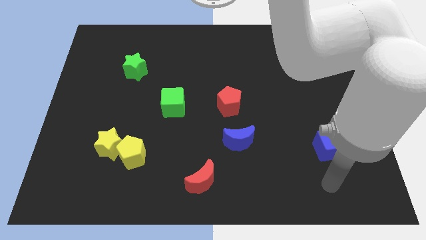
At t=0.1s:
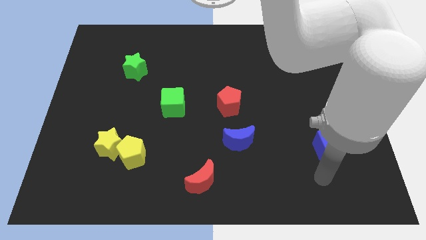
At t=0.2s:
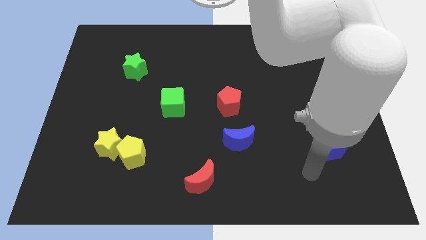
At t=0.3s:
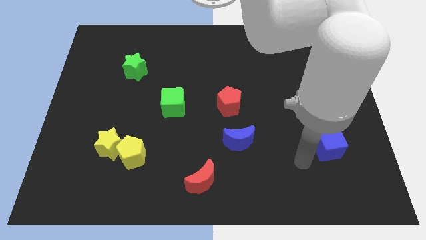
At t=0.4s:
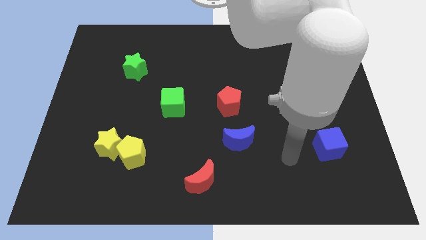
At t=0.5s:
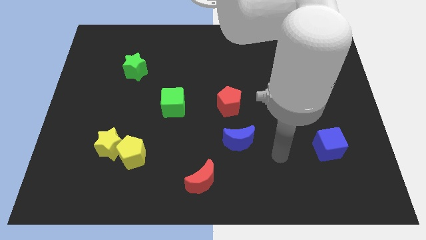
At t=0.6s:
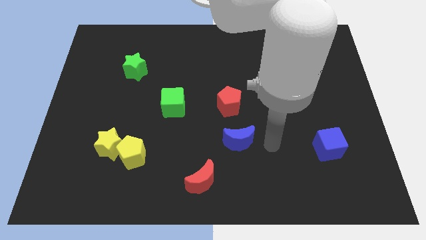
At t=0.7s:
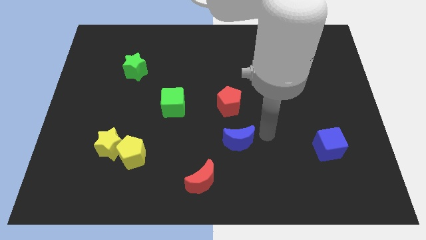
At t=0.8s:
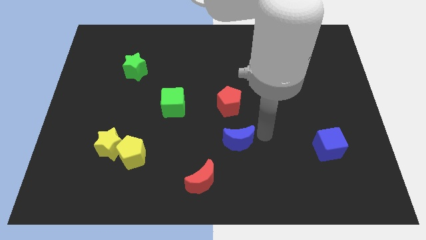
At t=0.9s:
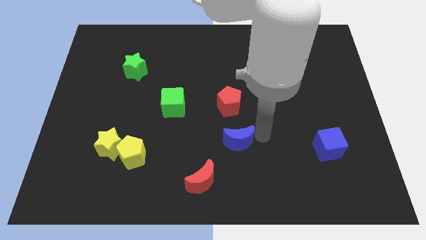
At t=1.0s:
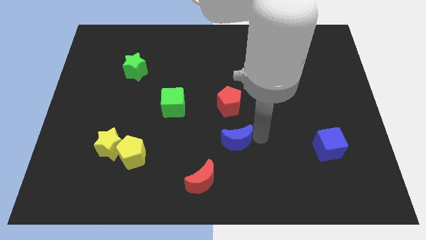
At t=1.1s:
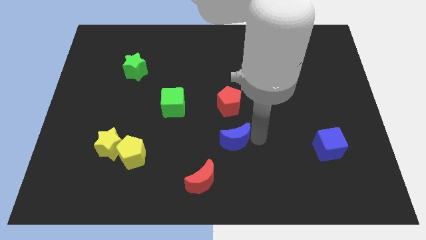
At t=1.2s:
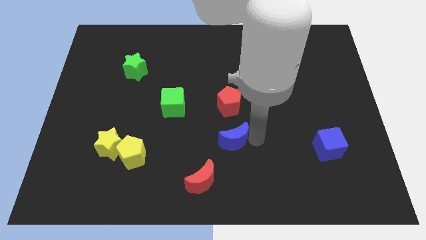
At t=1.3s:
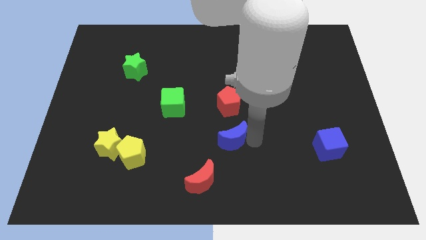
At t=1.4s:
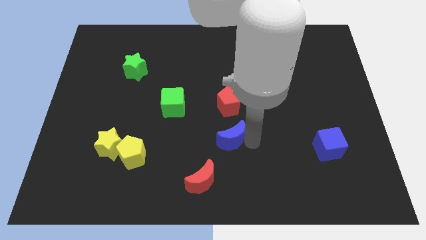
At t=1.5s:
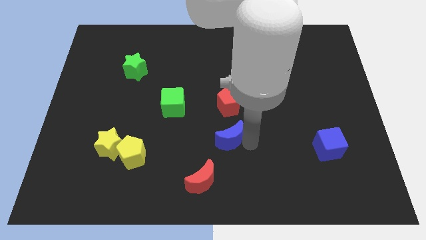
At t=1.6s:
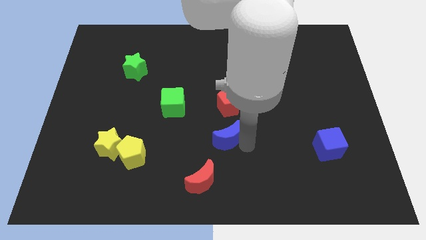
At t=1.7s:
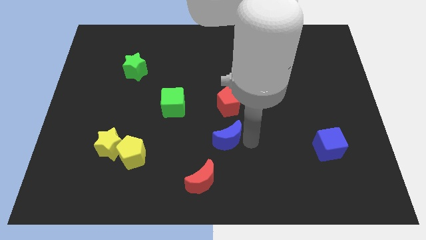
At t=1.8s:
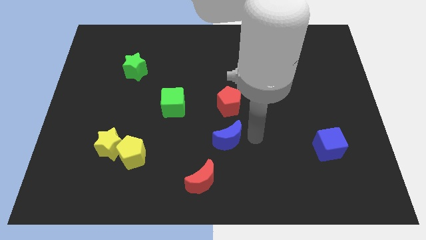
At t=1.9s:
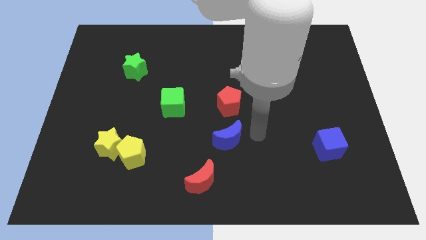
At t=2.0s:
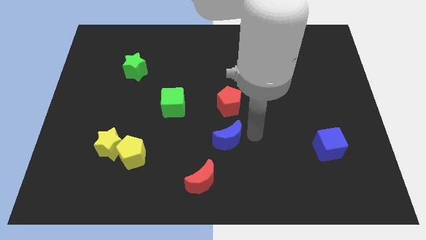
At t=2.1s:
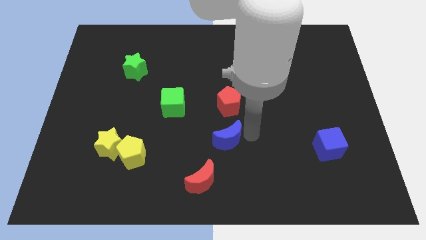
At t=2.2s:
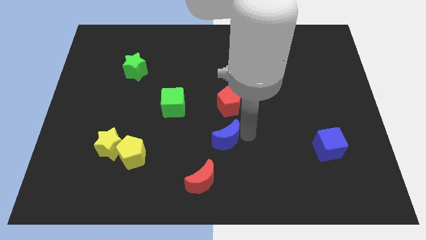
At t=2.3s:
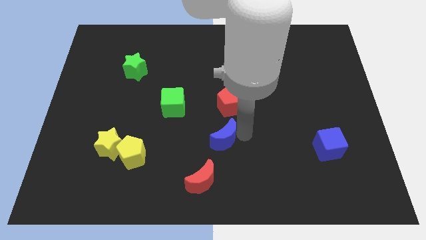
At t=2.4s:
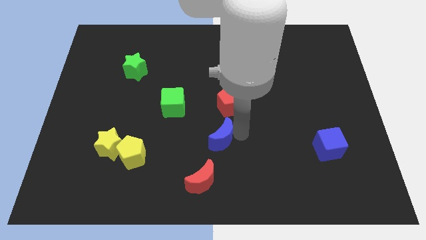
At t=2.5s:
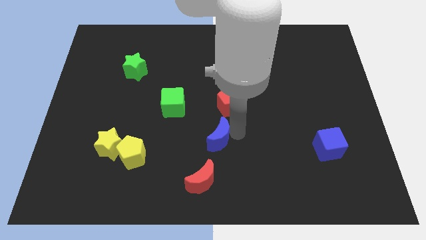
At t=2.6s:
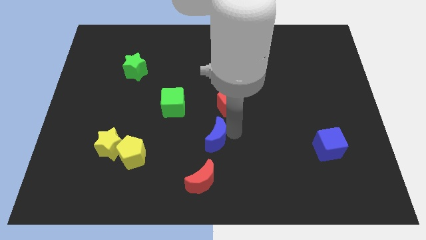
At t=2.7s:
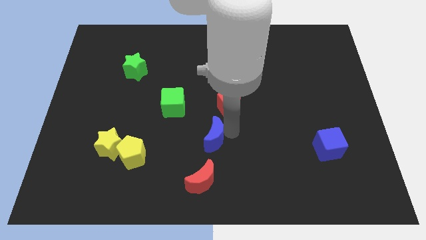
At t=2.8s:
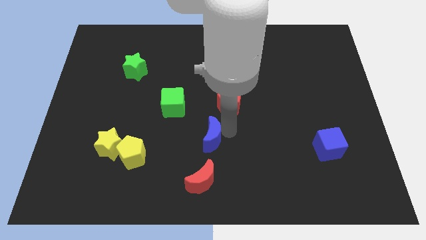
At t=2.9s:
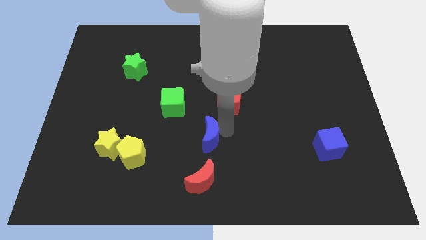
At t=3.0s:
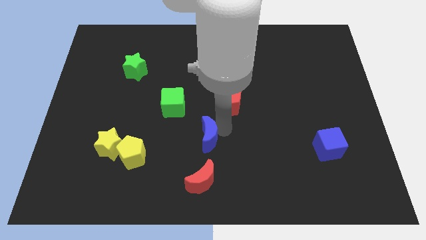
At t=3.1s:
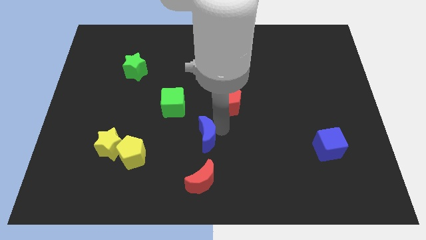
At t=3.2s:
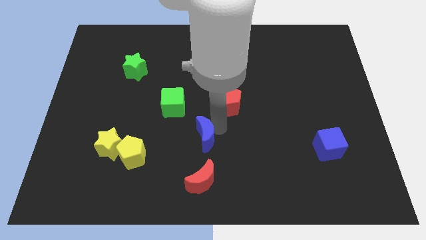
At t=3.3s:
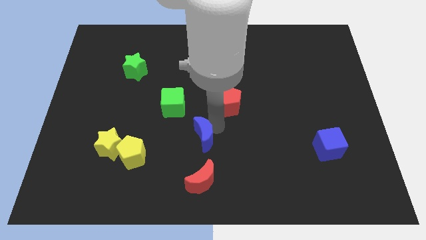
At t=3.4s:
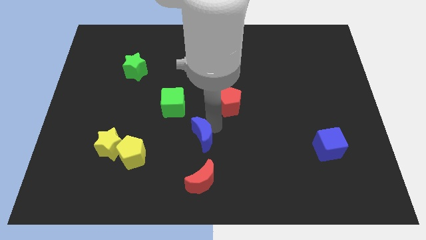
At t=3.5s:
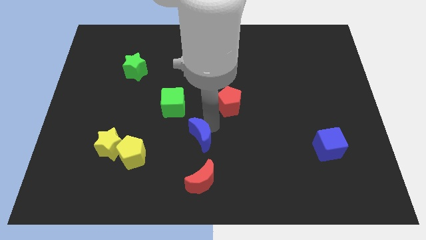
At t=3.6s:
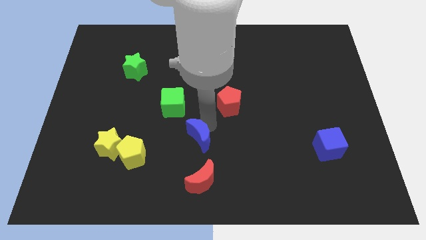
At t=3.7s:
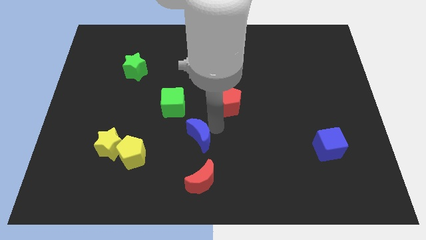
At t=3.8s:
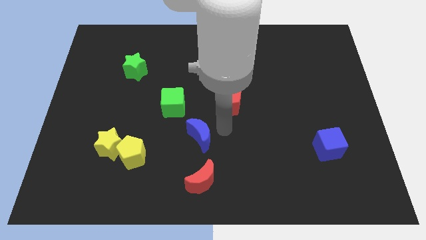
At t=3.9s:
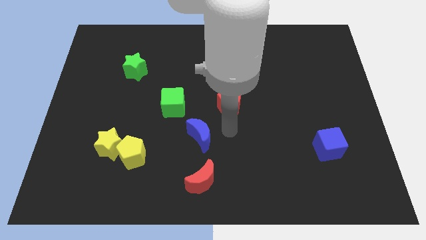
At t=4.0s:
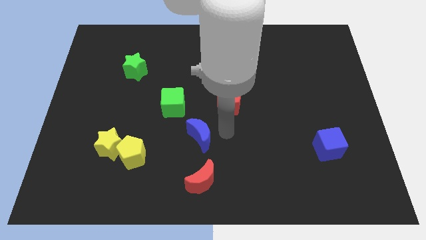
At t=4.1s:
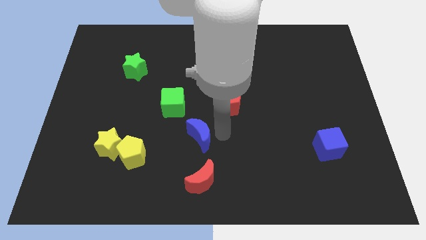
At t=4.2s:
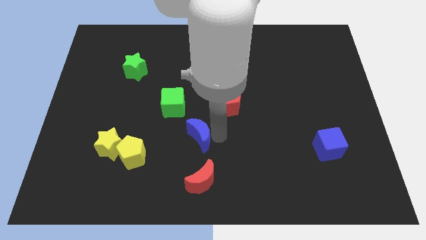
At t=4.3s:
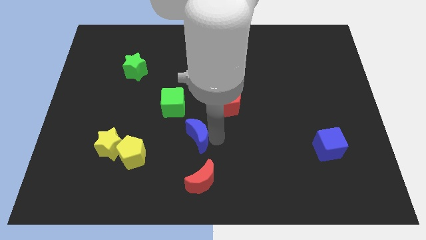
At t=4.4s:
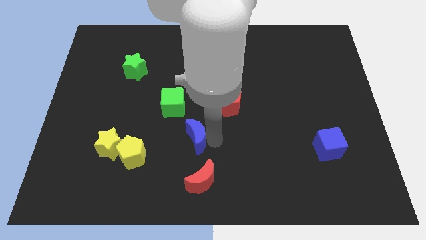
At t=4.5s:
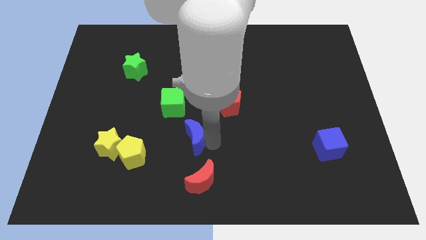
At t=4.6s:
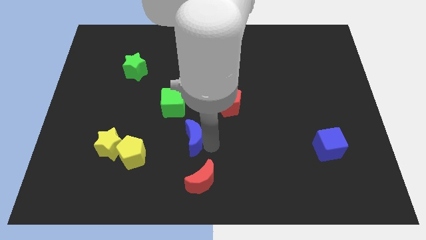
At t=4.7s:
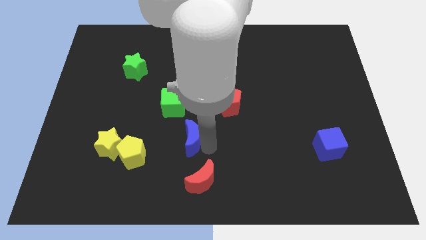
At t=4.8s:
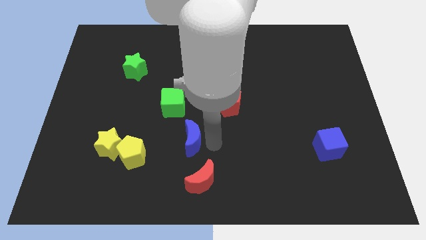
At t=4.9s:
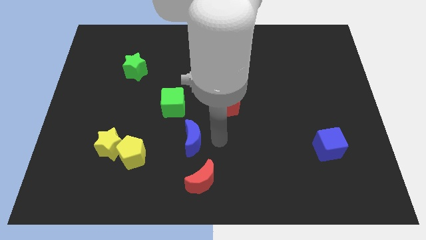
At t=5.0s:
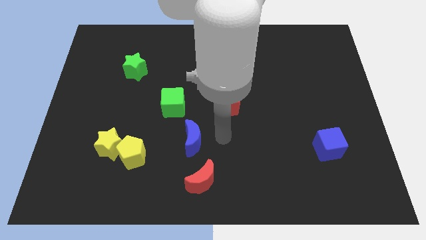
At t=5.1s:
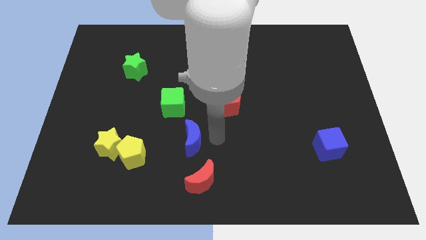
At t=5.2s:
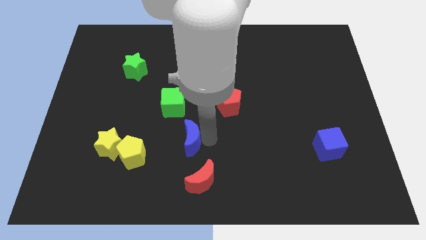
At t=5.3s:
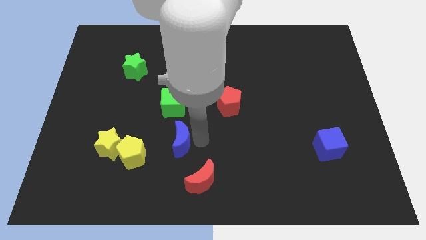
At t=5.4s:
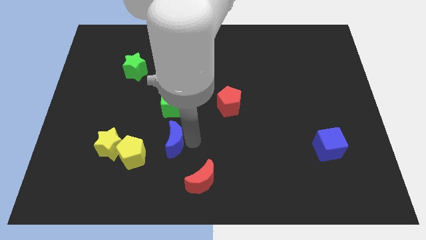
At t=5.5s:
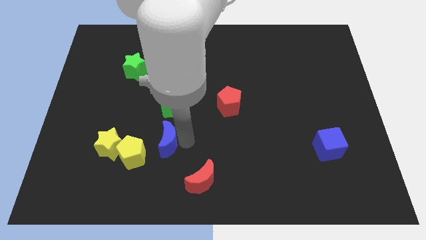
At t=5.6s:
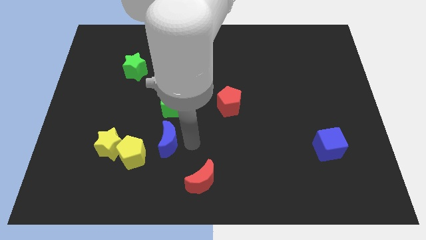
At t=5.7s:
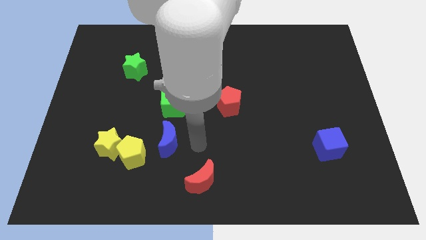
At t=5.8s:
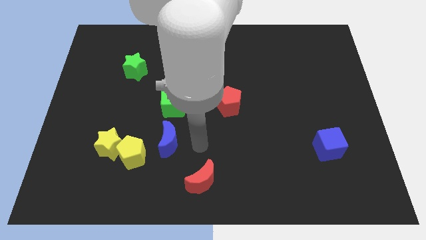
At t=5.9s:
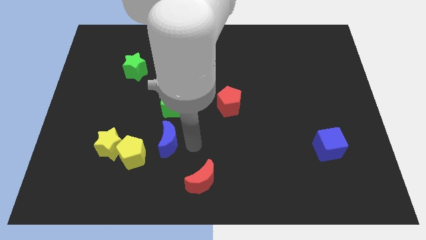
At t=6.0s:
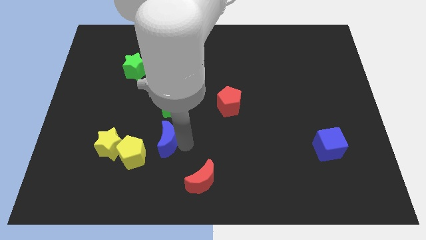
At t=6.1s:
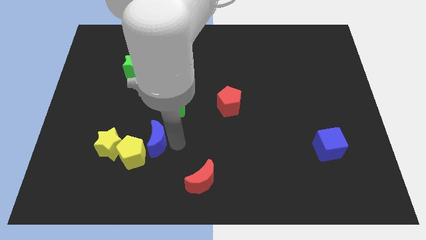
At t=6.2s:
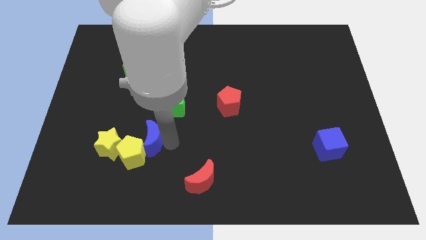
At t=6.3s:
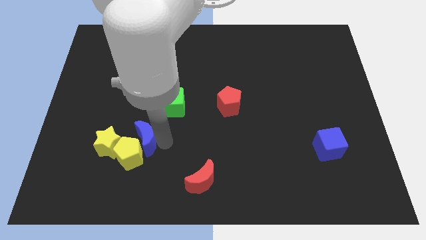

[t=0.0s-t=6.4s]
push the blue moon to the left

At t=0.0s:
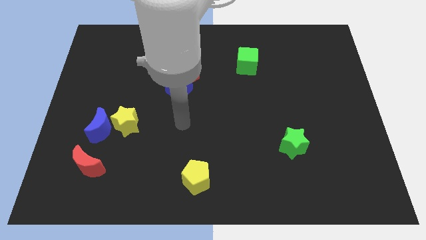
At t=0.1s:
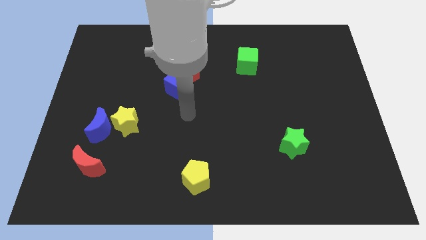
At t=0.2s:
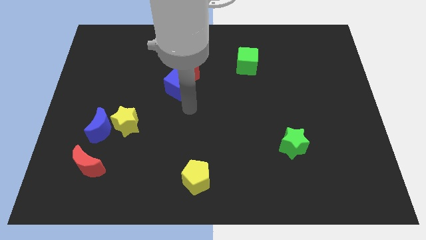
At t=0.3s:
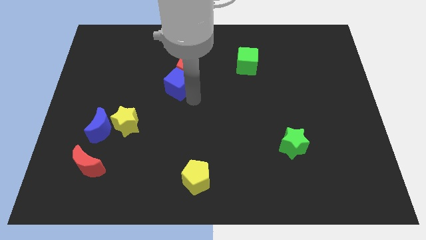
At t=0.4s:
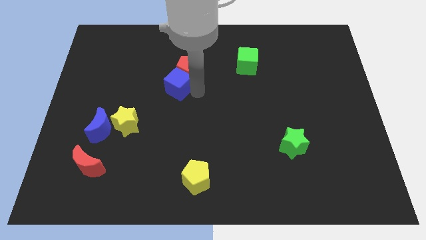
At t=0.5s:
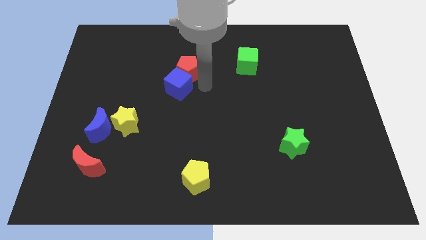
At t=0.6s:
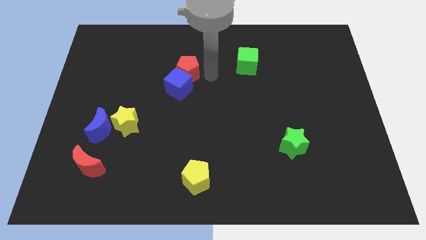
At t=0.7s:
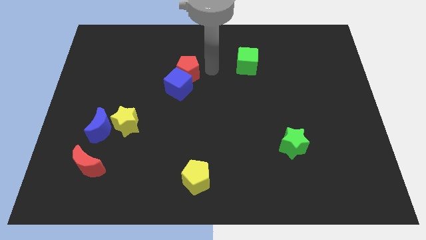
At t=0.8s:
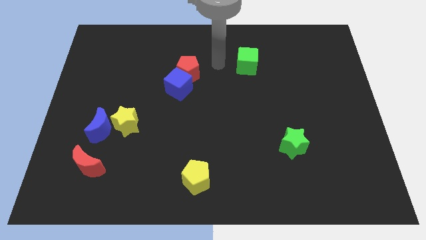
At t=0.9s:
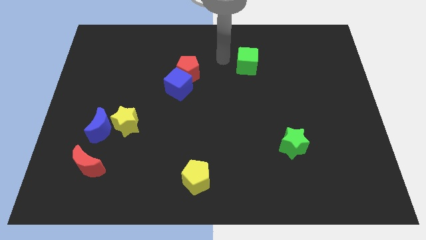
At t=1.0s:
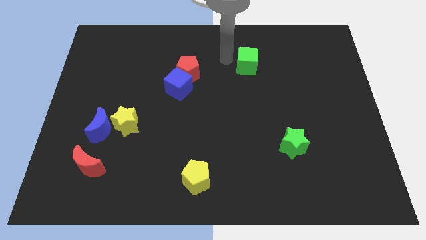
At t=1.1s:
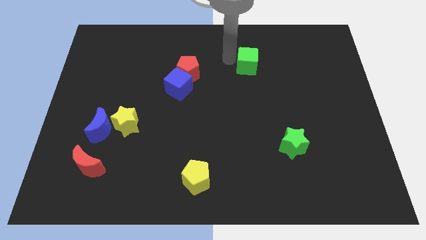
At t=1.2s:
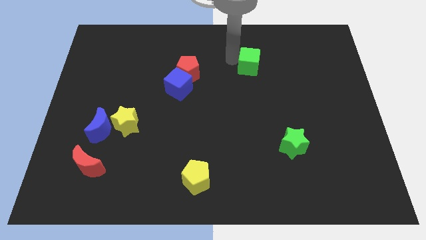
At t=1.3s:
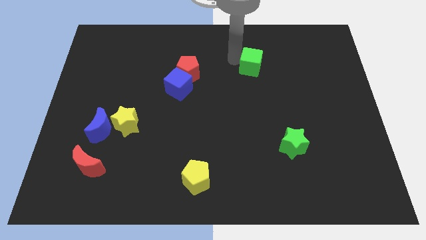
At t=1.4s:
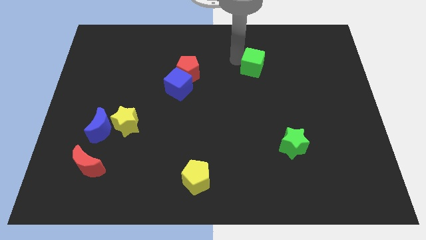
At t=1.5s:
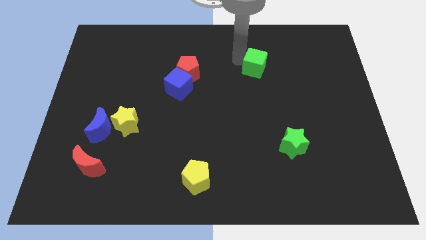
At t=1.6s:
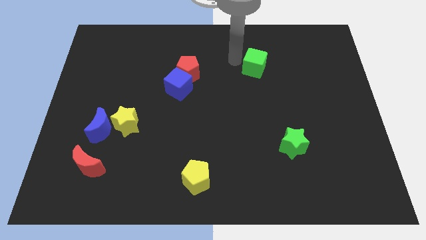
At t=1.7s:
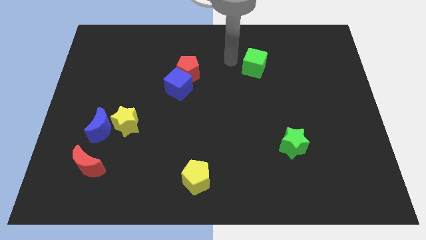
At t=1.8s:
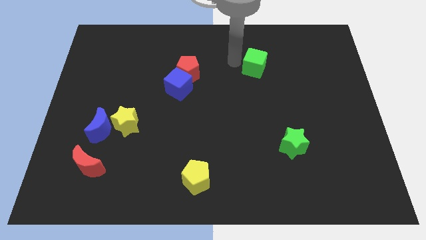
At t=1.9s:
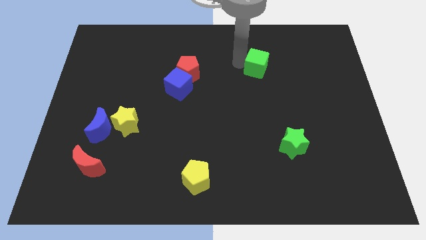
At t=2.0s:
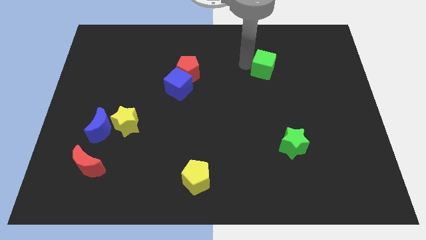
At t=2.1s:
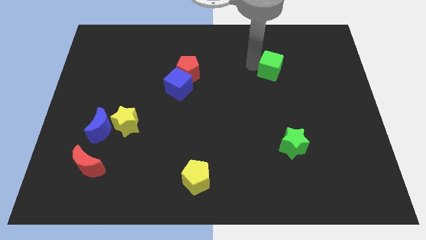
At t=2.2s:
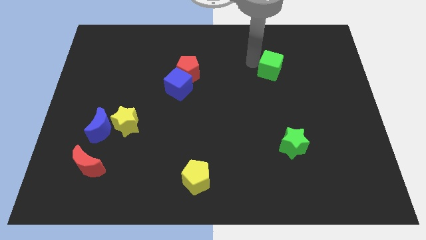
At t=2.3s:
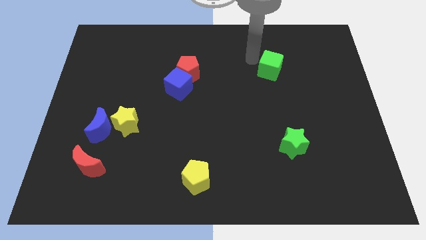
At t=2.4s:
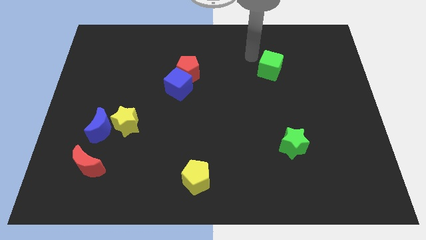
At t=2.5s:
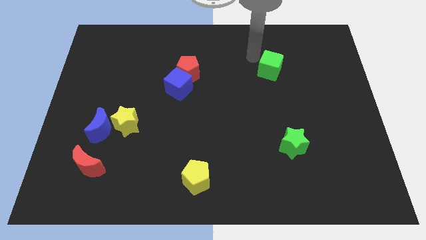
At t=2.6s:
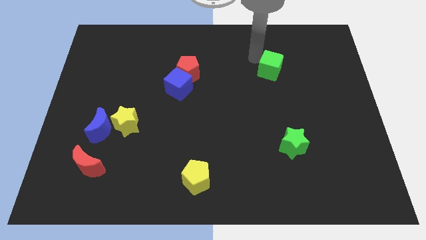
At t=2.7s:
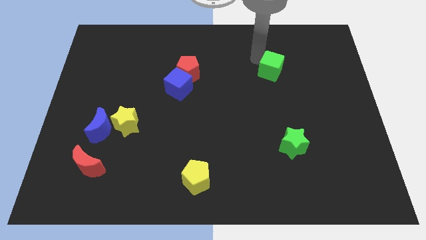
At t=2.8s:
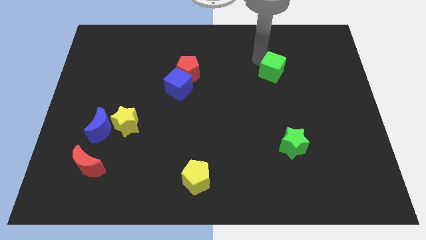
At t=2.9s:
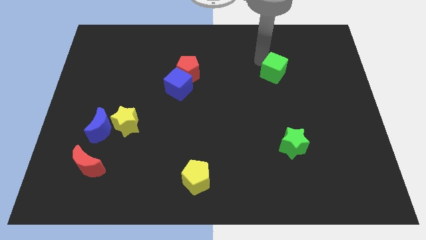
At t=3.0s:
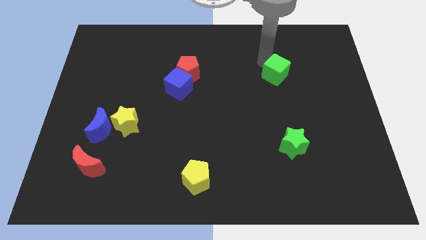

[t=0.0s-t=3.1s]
slightly push the green cube downwards and then right
